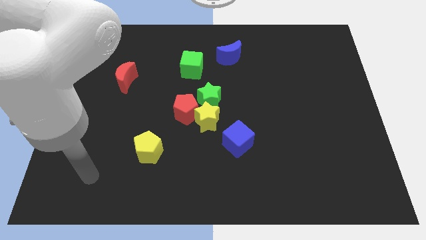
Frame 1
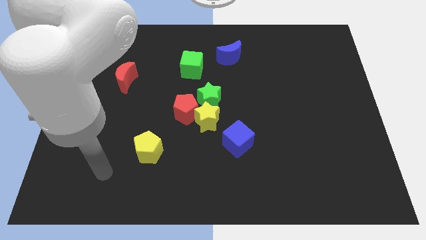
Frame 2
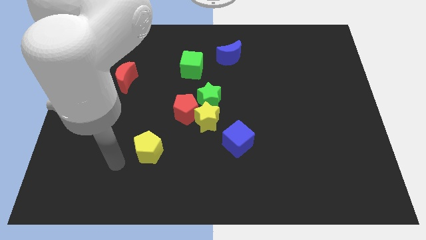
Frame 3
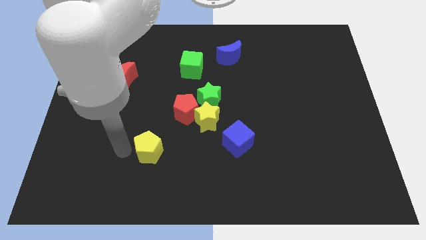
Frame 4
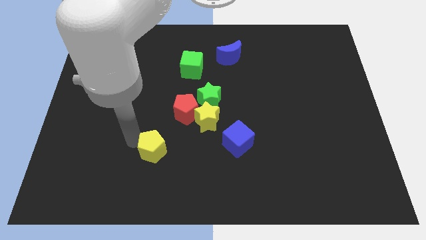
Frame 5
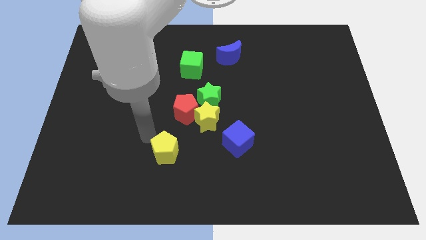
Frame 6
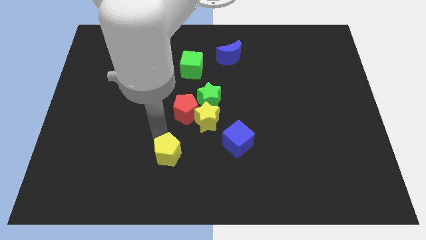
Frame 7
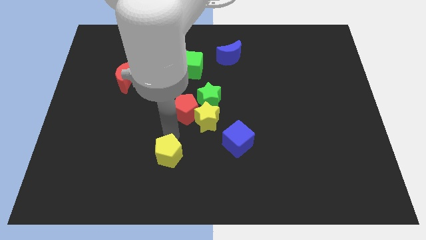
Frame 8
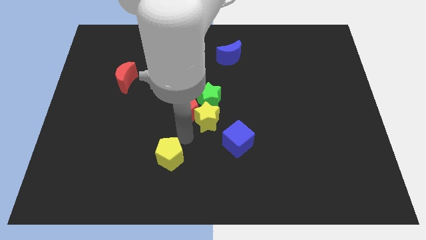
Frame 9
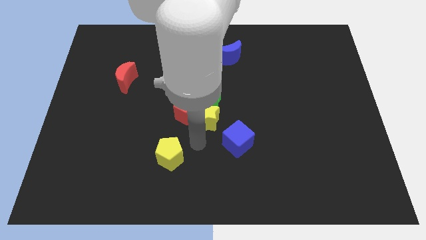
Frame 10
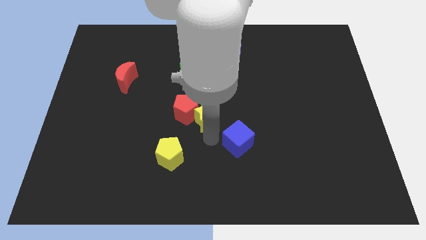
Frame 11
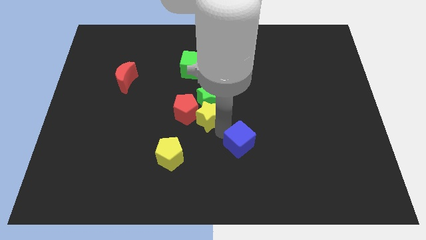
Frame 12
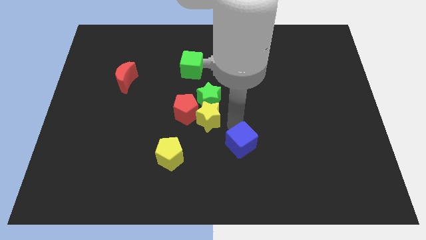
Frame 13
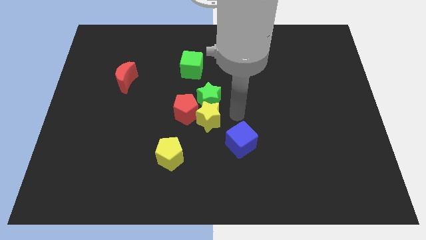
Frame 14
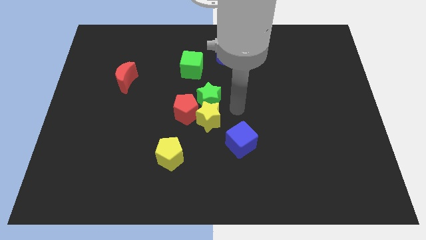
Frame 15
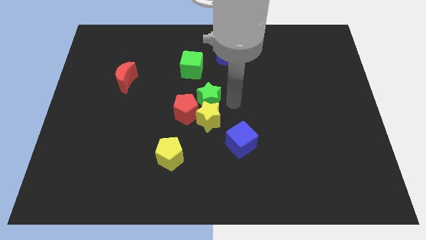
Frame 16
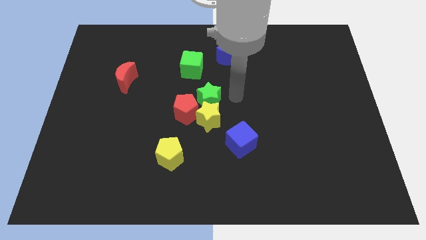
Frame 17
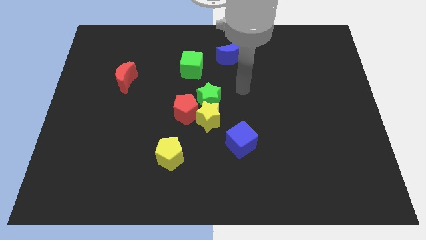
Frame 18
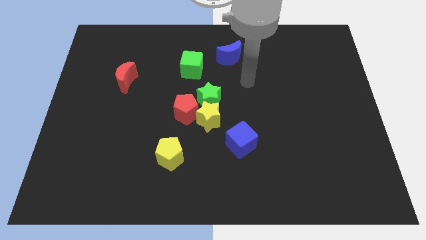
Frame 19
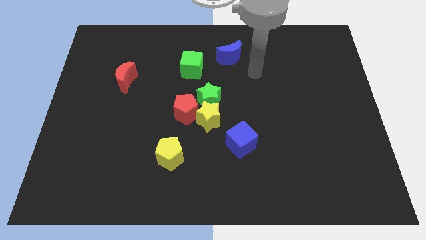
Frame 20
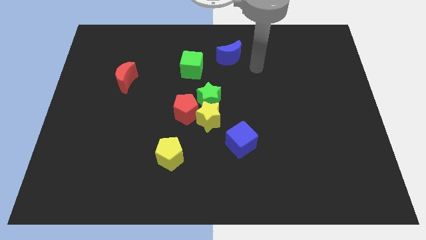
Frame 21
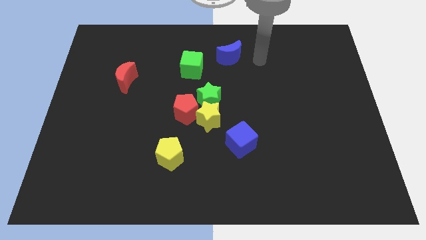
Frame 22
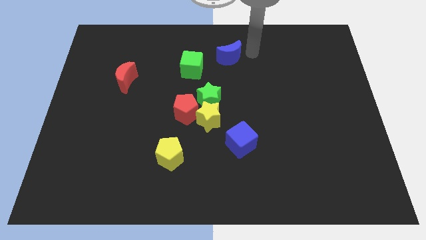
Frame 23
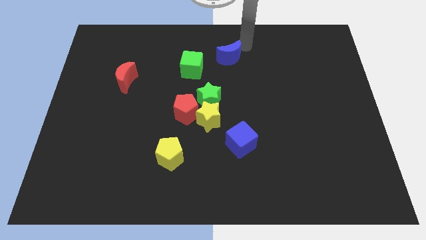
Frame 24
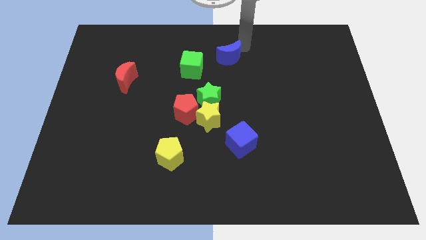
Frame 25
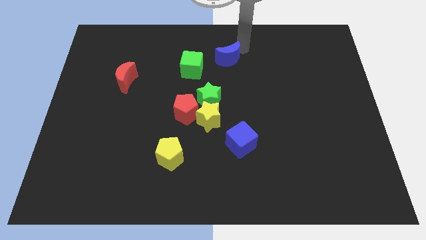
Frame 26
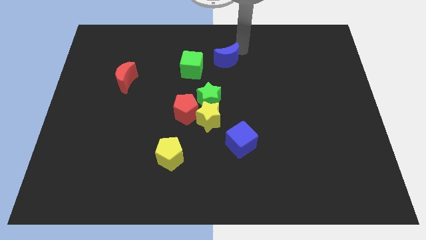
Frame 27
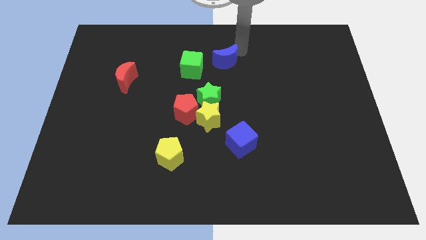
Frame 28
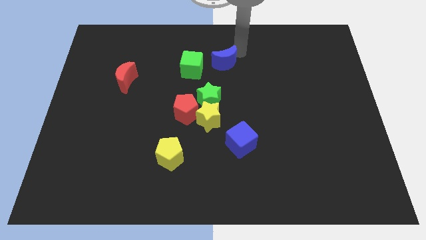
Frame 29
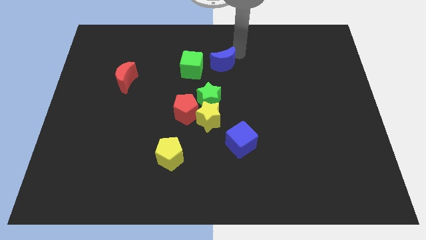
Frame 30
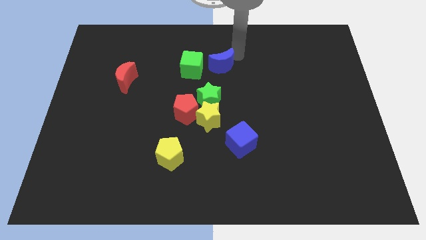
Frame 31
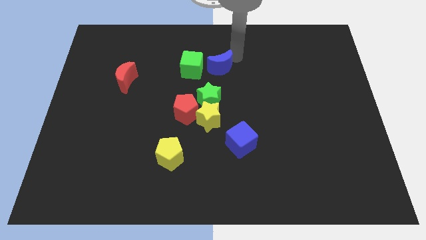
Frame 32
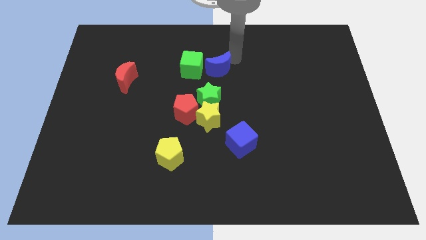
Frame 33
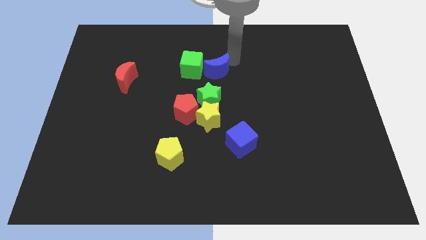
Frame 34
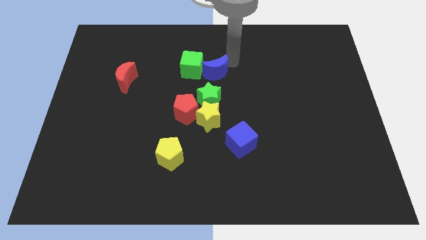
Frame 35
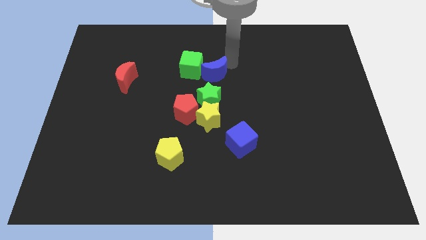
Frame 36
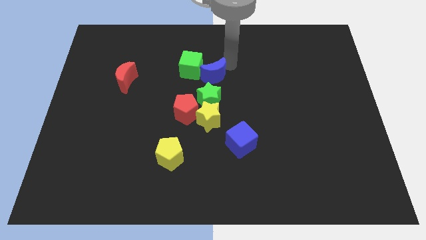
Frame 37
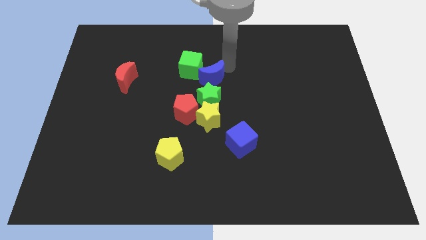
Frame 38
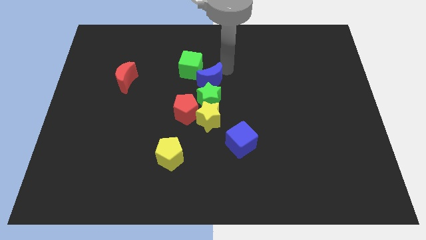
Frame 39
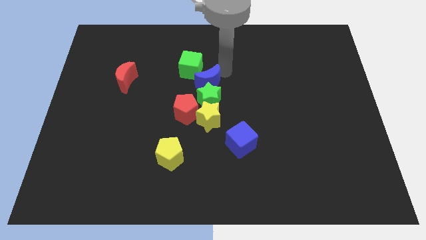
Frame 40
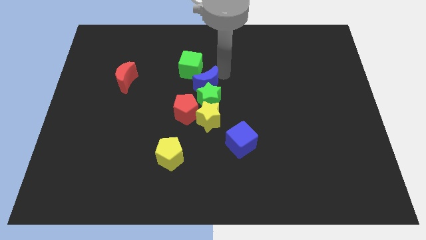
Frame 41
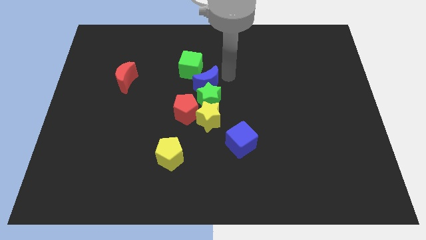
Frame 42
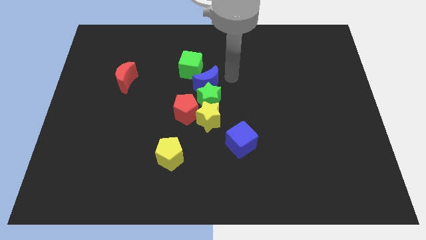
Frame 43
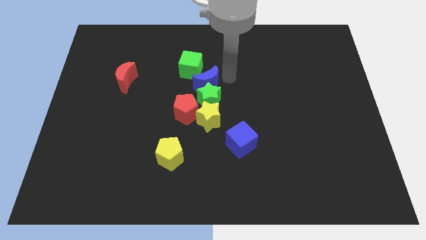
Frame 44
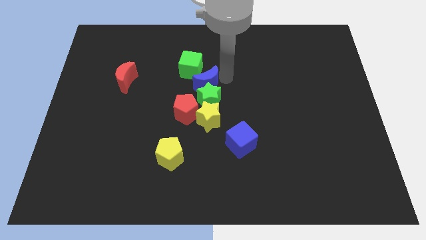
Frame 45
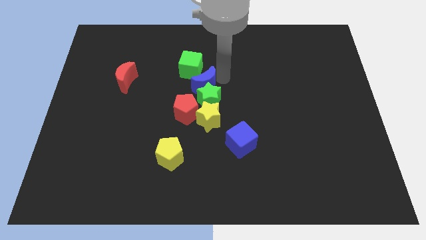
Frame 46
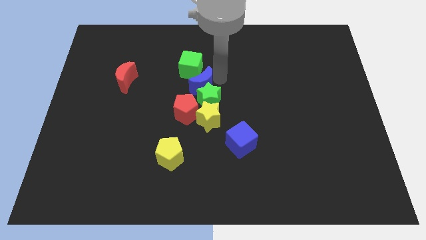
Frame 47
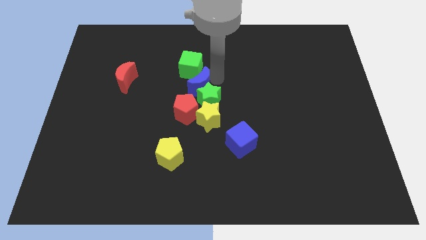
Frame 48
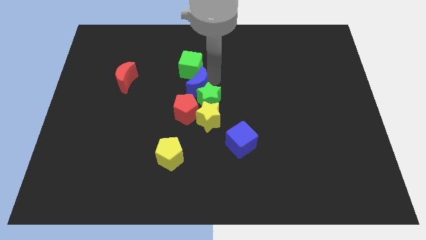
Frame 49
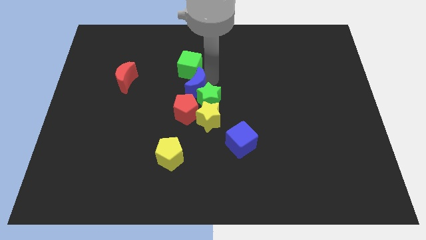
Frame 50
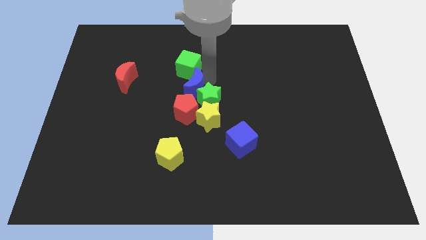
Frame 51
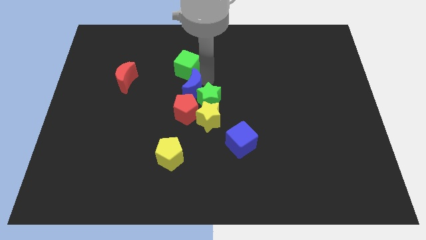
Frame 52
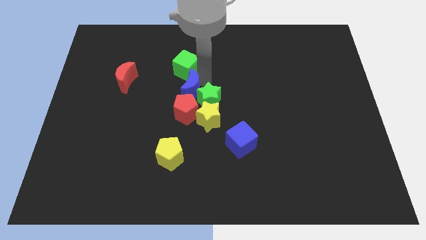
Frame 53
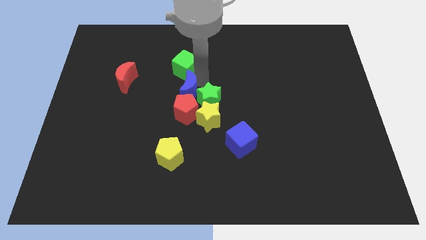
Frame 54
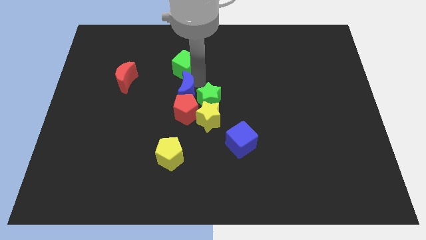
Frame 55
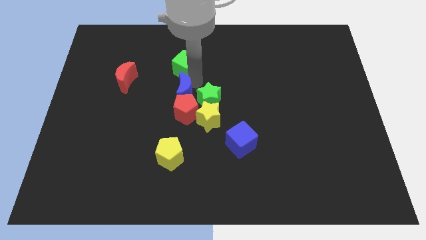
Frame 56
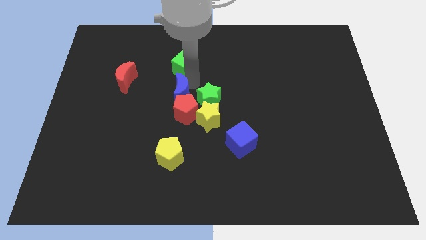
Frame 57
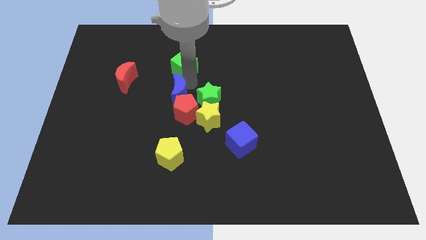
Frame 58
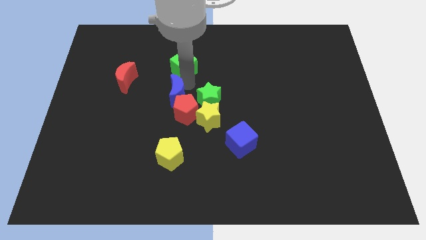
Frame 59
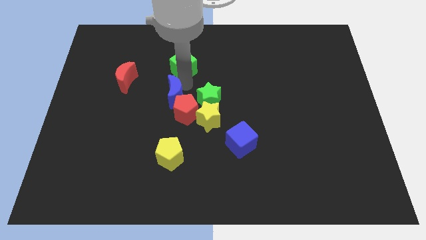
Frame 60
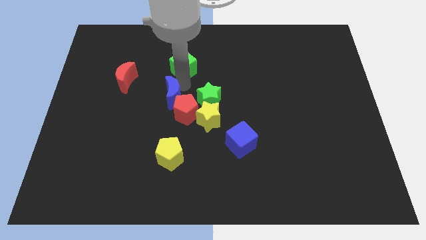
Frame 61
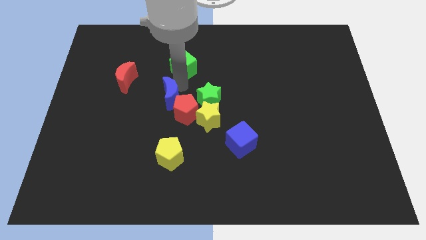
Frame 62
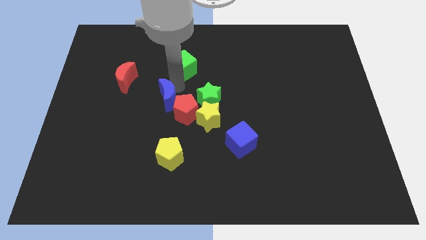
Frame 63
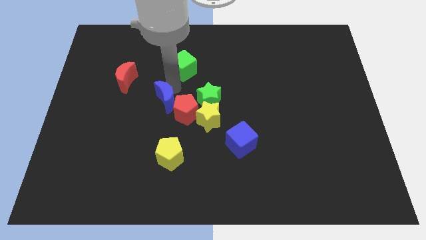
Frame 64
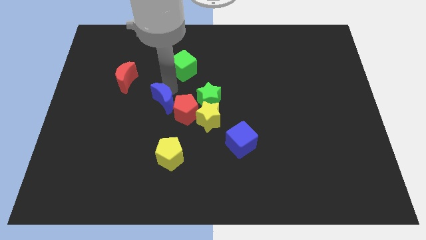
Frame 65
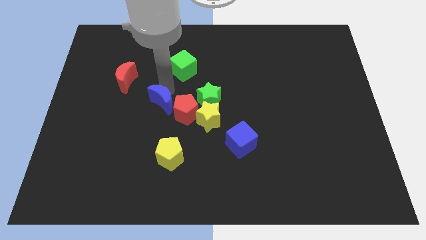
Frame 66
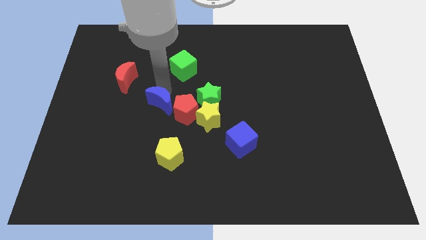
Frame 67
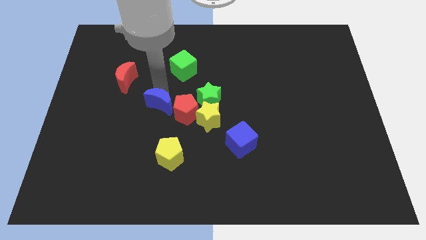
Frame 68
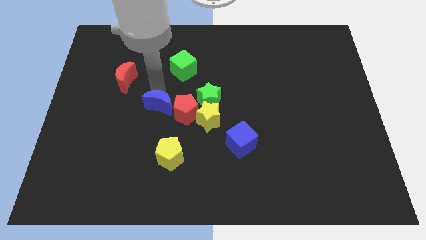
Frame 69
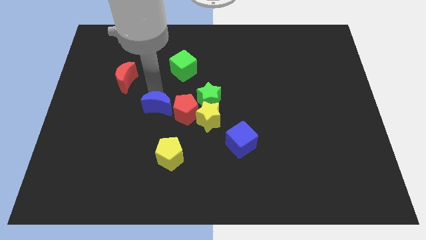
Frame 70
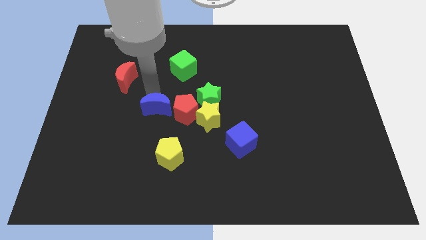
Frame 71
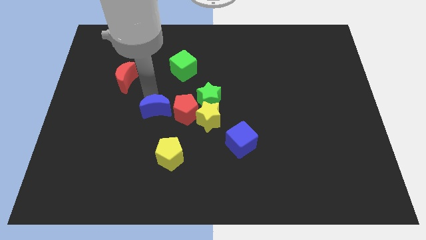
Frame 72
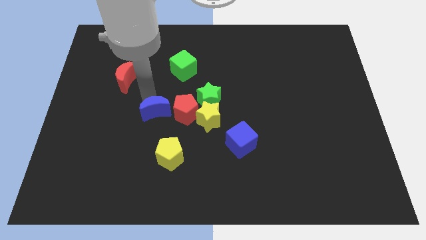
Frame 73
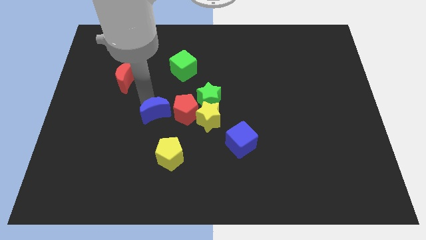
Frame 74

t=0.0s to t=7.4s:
put the blue moon to the bottom left side of the red pentagon
